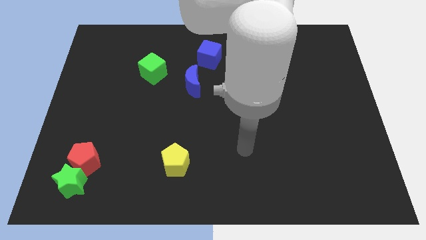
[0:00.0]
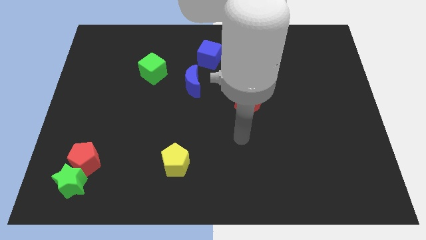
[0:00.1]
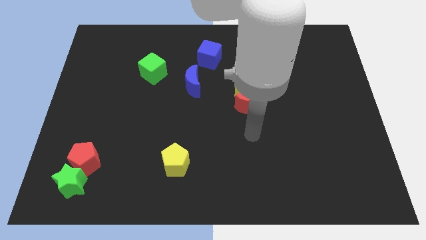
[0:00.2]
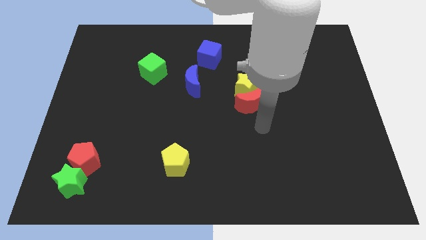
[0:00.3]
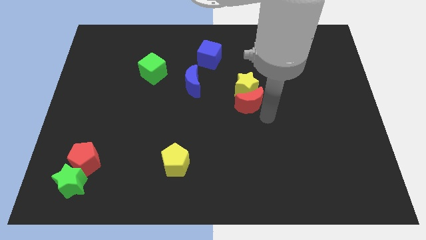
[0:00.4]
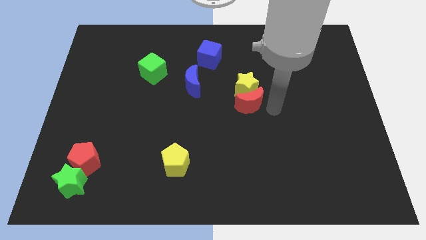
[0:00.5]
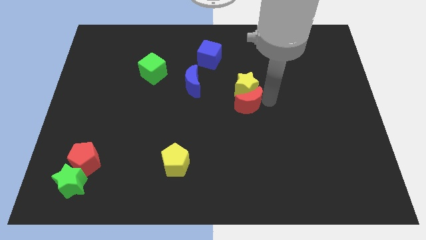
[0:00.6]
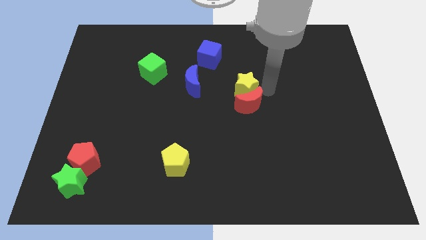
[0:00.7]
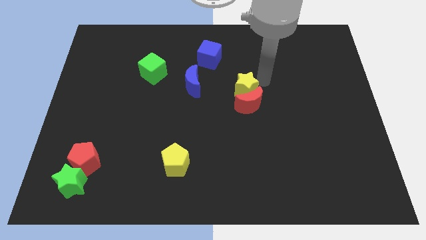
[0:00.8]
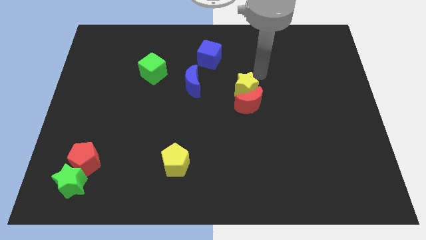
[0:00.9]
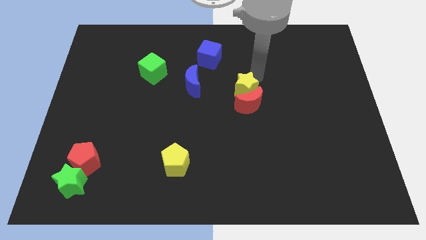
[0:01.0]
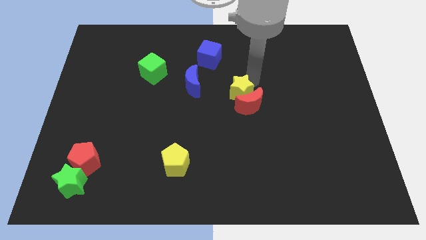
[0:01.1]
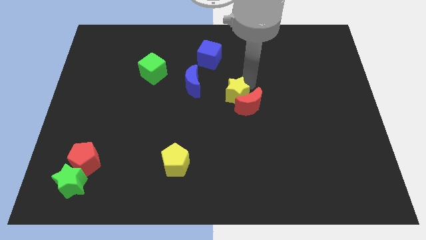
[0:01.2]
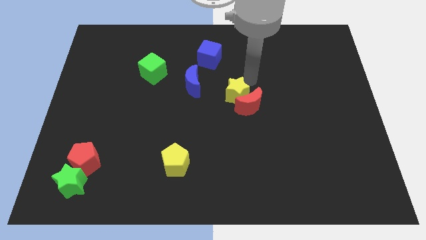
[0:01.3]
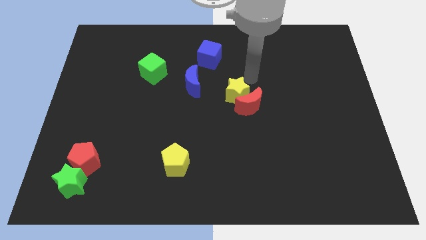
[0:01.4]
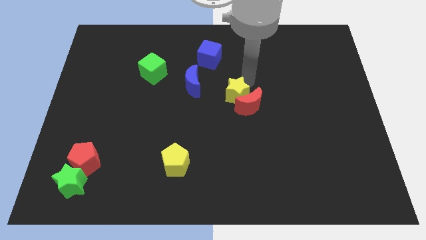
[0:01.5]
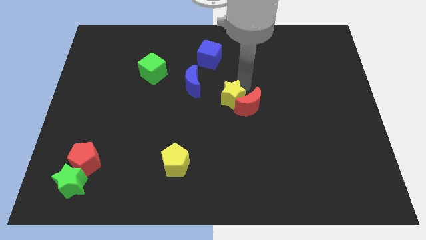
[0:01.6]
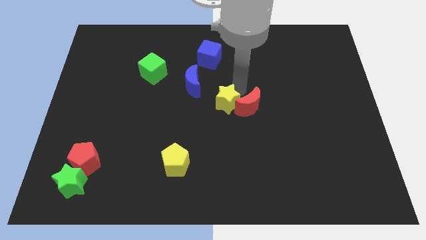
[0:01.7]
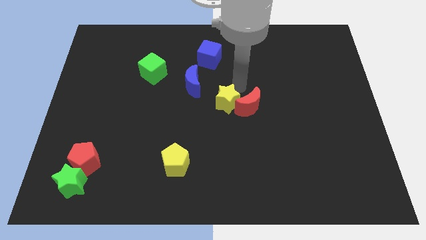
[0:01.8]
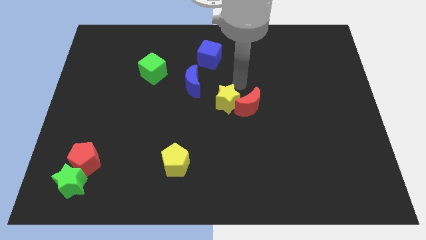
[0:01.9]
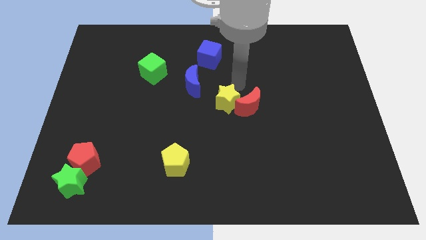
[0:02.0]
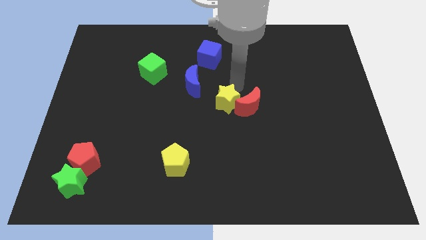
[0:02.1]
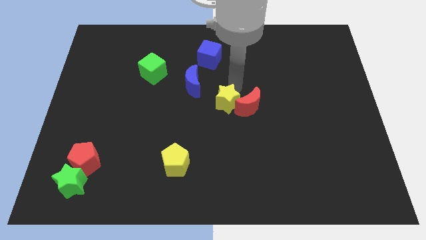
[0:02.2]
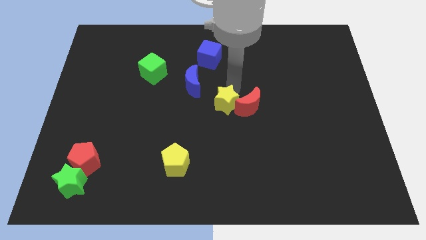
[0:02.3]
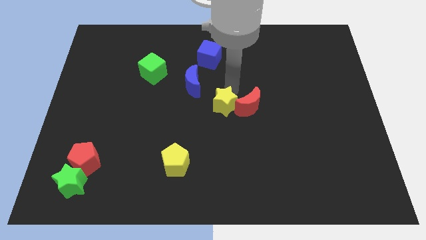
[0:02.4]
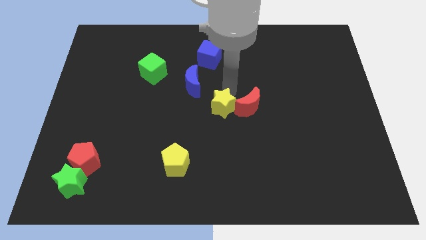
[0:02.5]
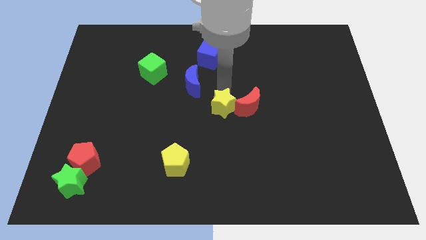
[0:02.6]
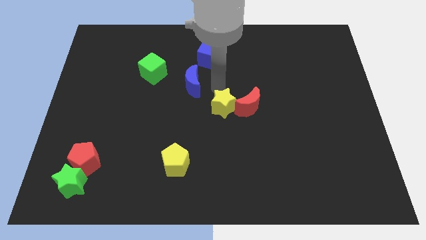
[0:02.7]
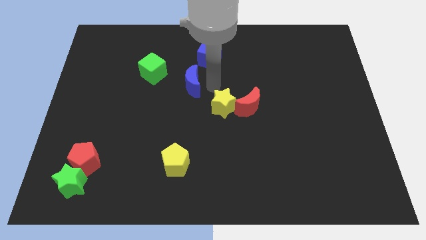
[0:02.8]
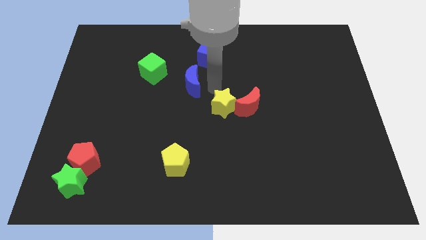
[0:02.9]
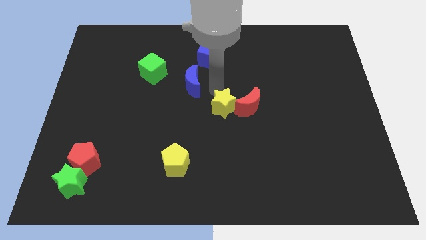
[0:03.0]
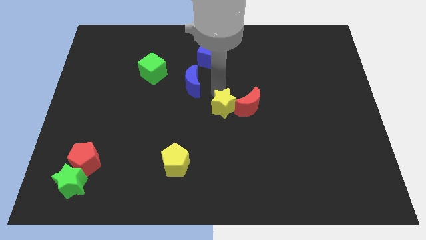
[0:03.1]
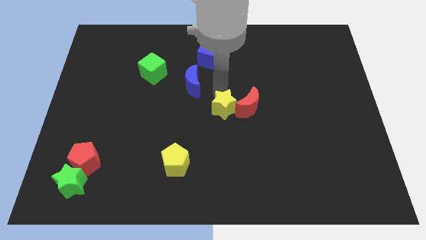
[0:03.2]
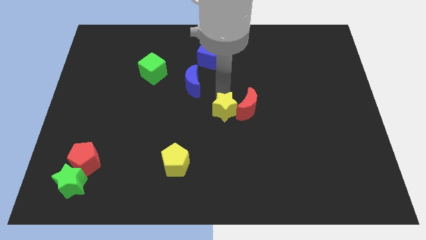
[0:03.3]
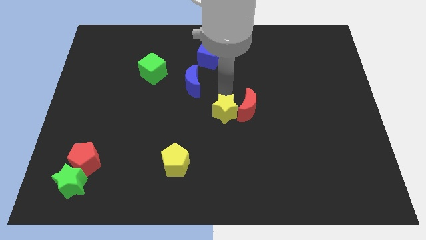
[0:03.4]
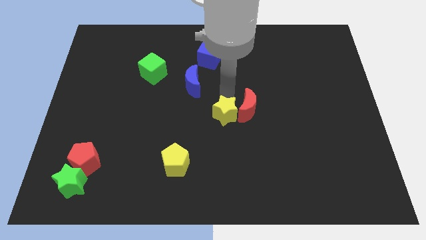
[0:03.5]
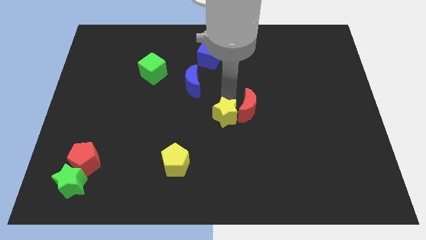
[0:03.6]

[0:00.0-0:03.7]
move the yellow star somewhat down

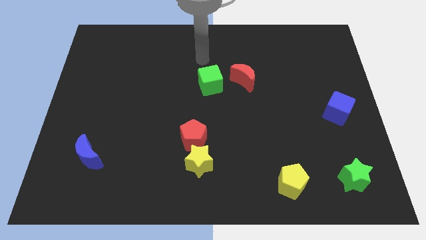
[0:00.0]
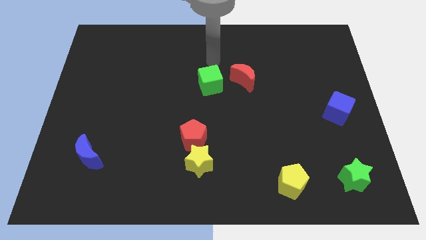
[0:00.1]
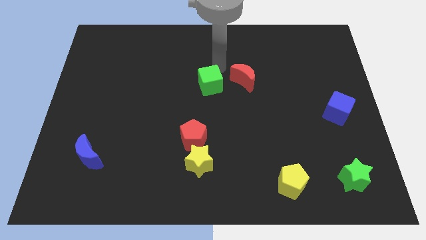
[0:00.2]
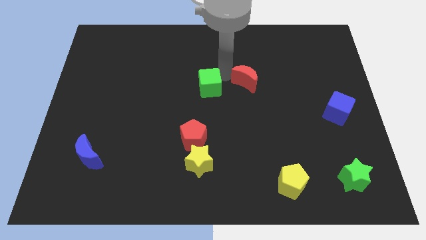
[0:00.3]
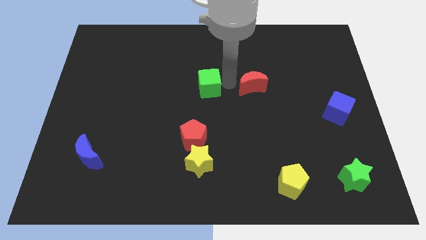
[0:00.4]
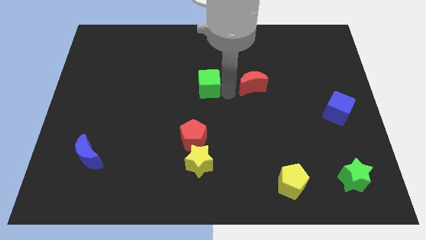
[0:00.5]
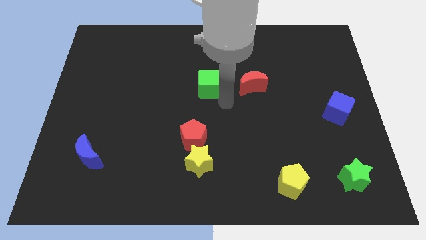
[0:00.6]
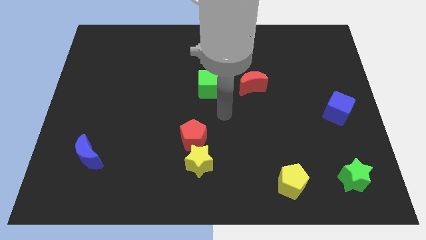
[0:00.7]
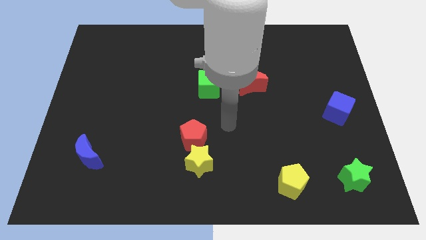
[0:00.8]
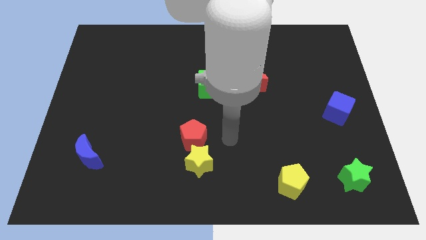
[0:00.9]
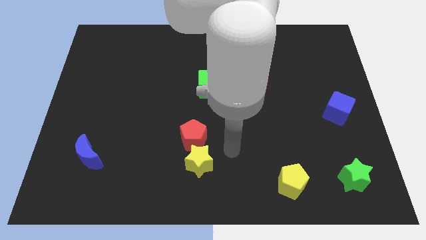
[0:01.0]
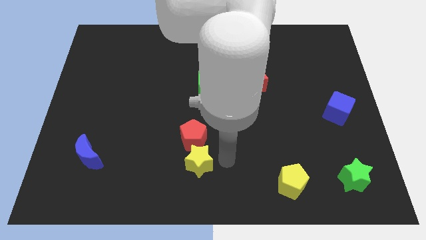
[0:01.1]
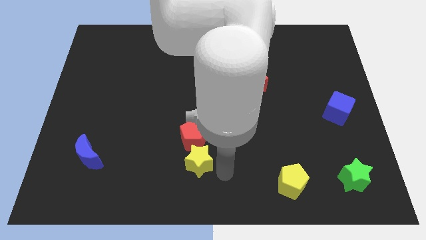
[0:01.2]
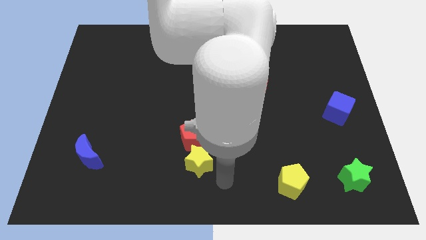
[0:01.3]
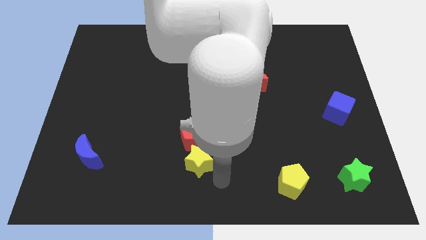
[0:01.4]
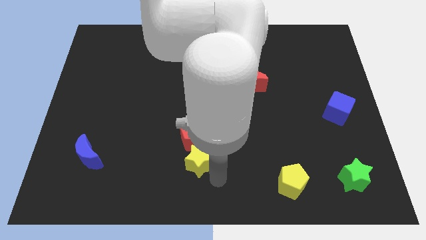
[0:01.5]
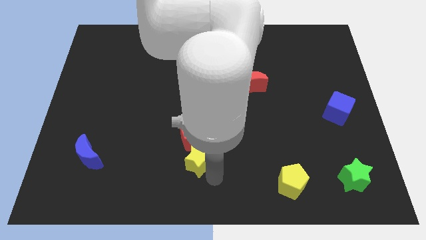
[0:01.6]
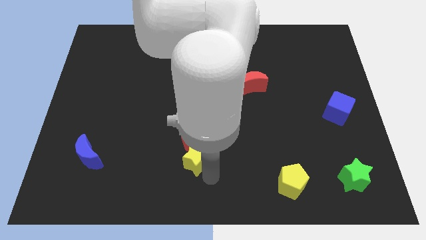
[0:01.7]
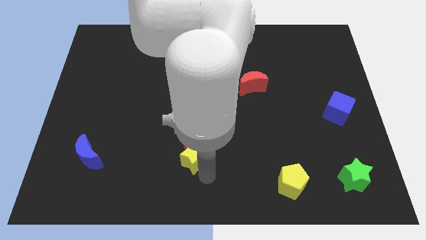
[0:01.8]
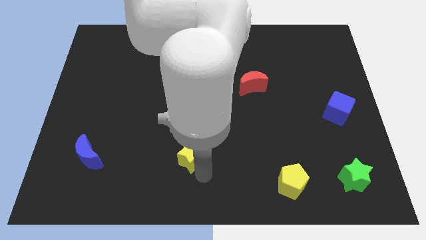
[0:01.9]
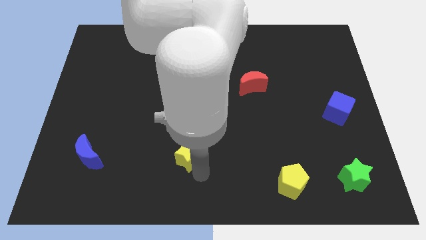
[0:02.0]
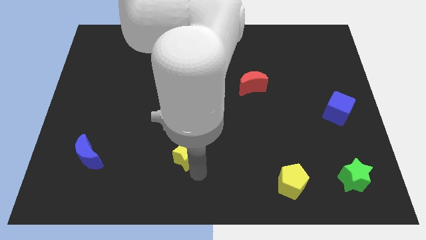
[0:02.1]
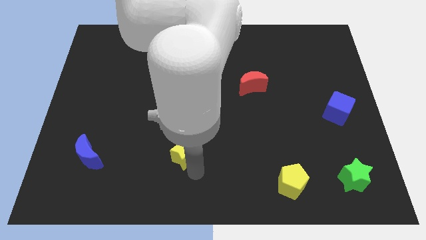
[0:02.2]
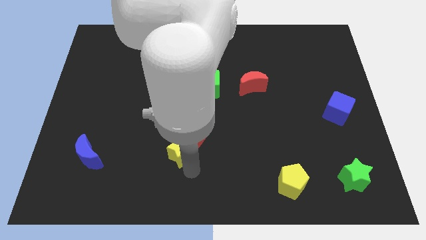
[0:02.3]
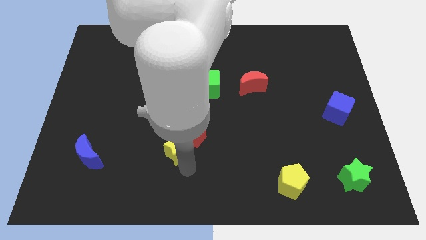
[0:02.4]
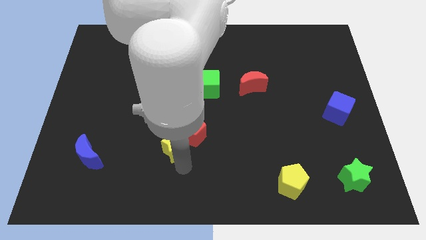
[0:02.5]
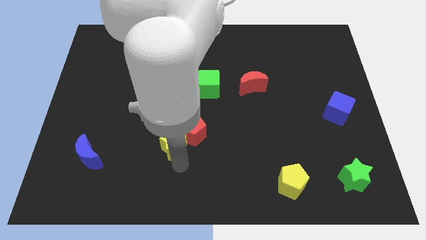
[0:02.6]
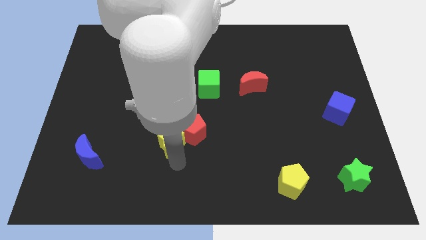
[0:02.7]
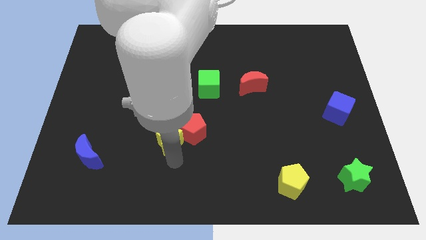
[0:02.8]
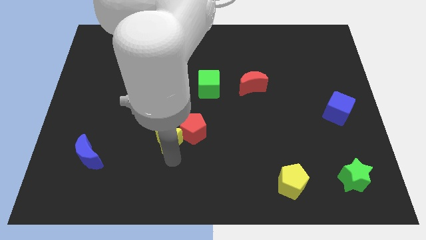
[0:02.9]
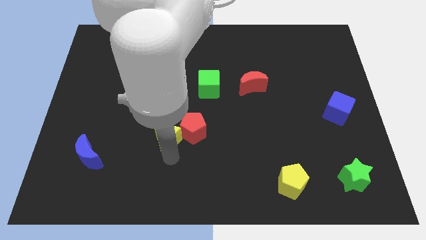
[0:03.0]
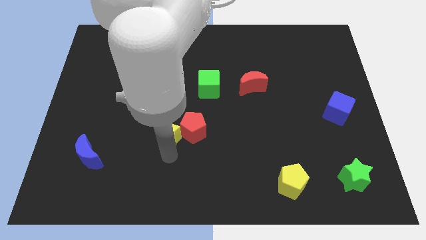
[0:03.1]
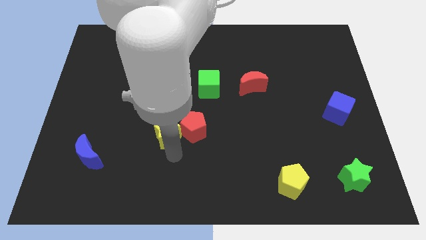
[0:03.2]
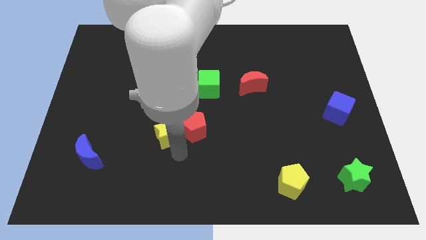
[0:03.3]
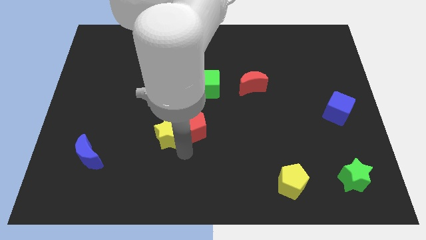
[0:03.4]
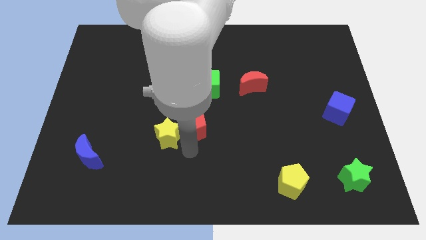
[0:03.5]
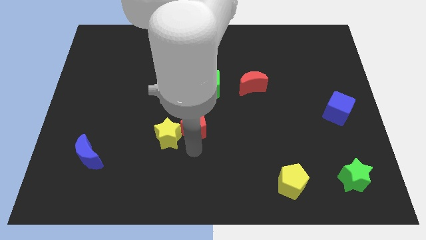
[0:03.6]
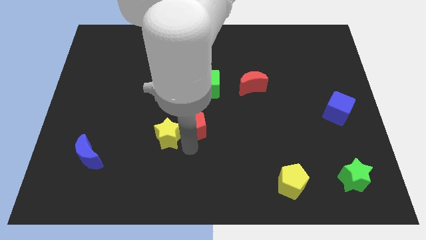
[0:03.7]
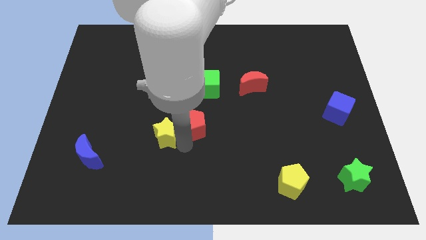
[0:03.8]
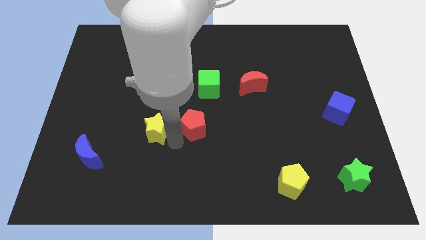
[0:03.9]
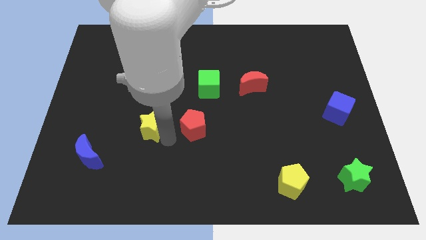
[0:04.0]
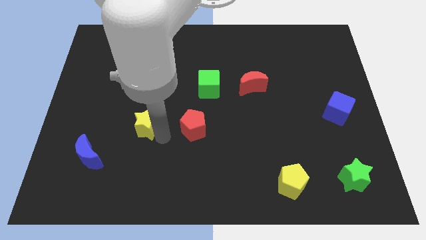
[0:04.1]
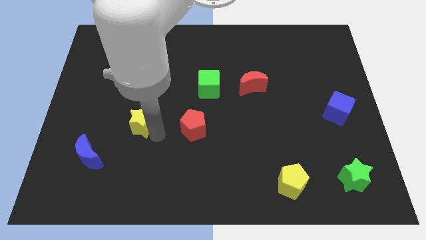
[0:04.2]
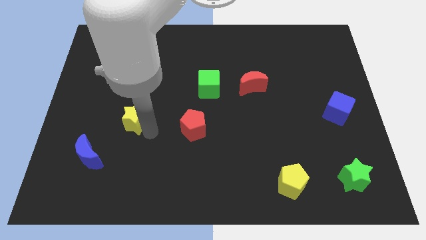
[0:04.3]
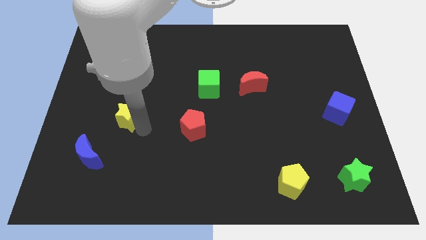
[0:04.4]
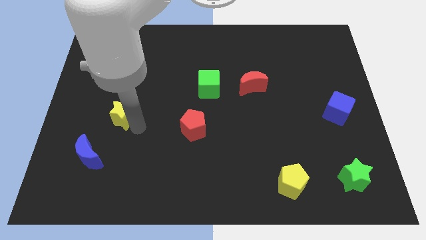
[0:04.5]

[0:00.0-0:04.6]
move the yellow star diagonally up and left
